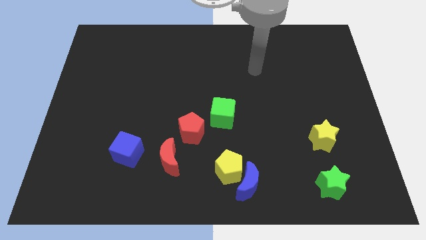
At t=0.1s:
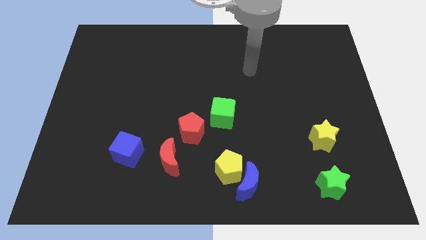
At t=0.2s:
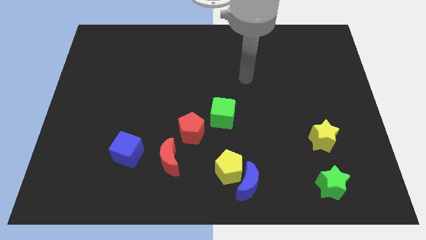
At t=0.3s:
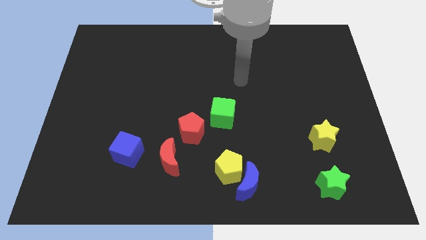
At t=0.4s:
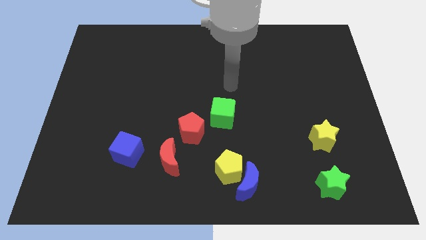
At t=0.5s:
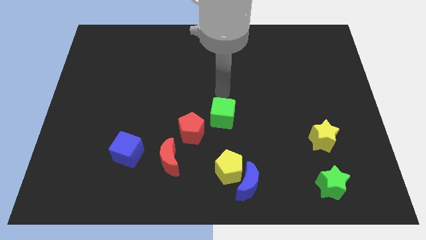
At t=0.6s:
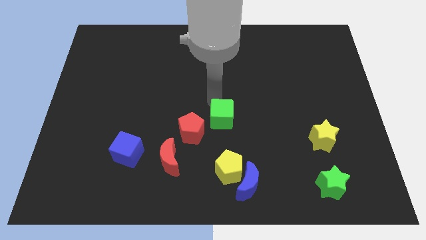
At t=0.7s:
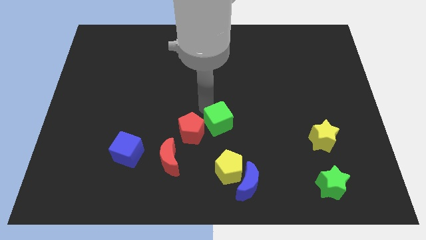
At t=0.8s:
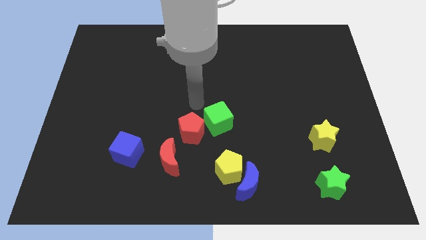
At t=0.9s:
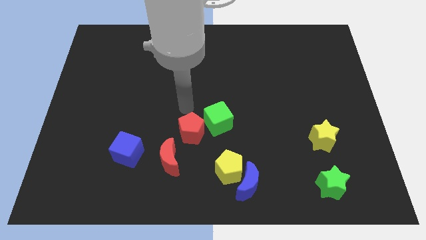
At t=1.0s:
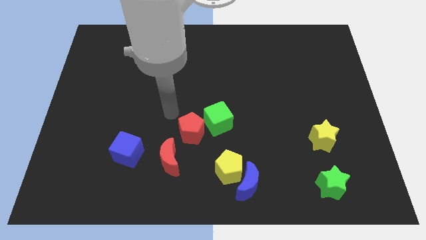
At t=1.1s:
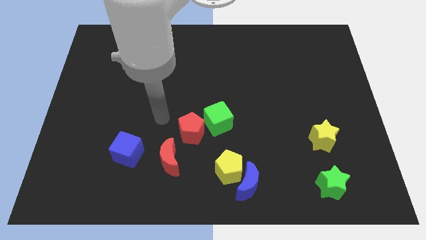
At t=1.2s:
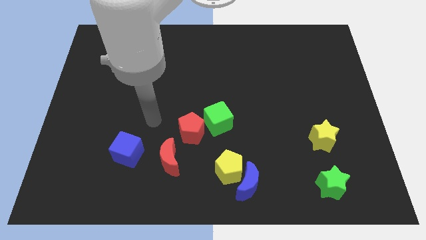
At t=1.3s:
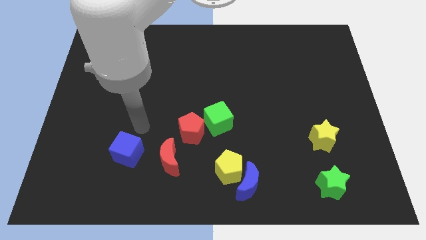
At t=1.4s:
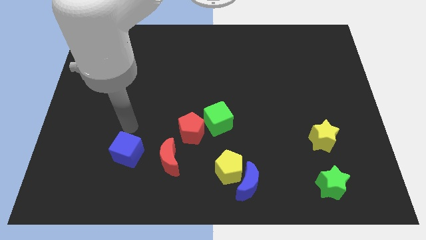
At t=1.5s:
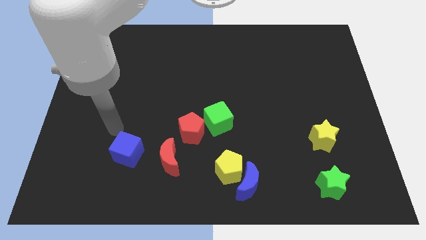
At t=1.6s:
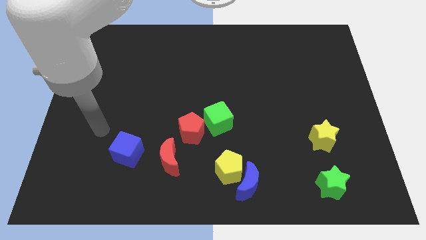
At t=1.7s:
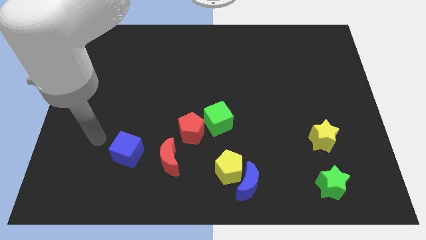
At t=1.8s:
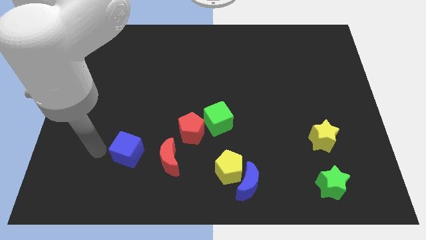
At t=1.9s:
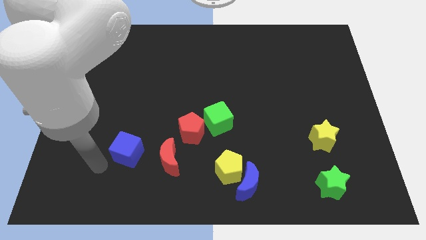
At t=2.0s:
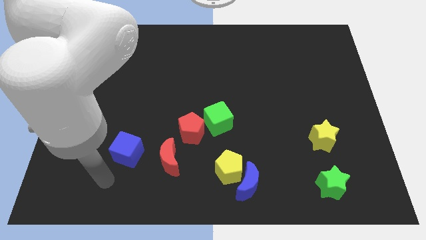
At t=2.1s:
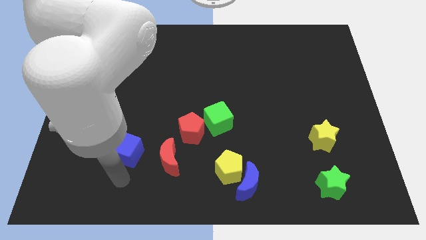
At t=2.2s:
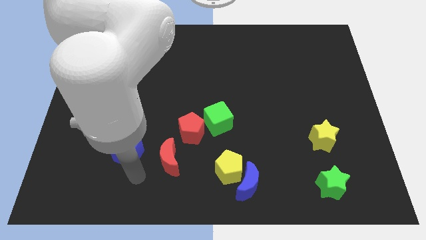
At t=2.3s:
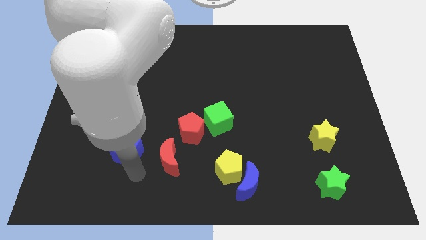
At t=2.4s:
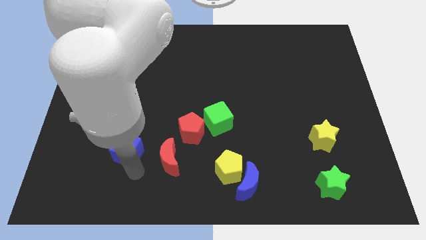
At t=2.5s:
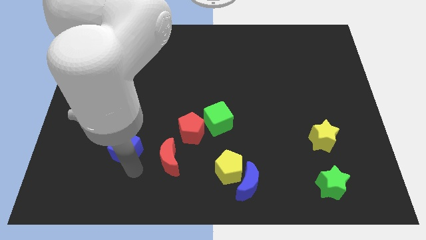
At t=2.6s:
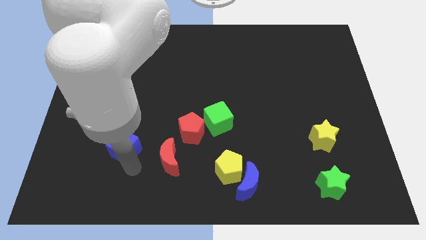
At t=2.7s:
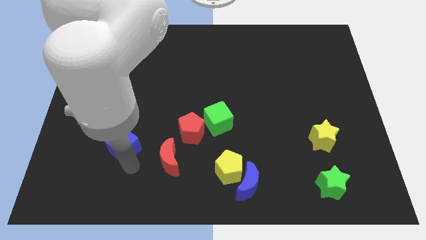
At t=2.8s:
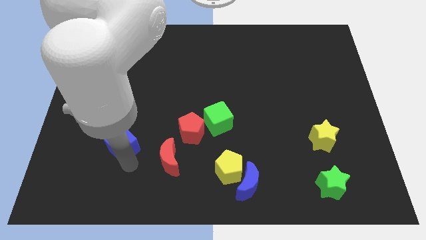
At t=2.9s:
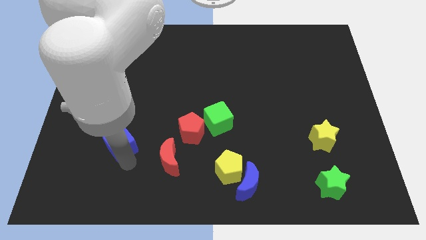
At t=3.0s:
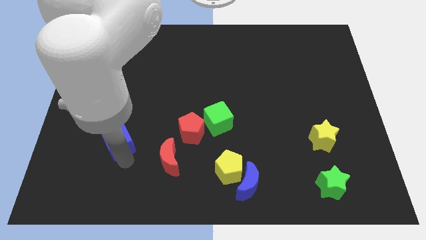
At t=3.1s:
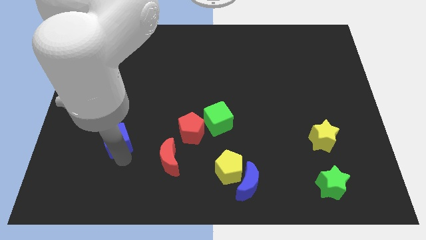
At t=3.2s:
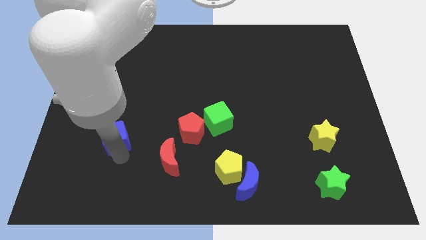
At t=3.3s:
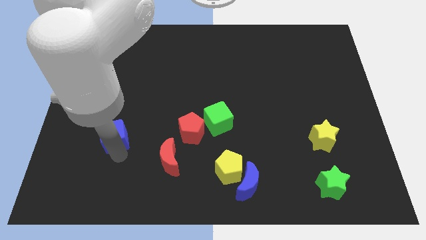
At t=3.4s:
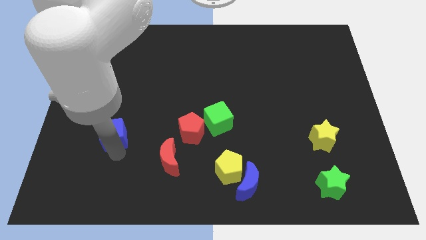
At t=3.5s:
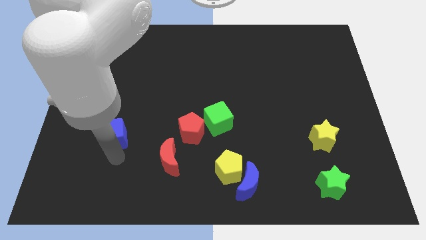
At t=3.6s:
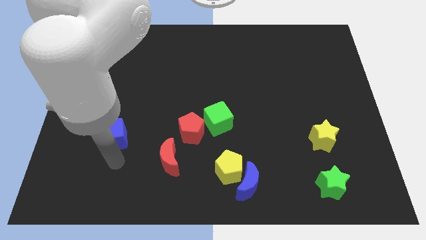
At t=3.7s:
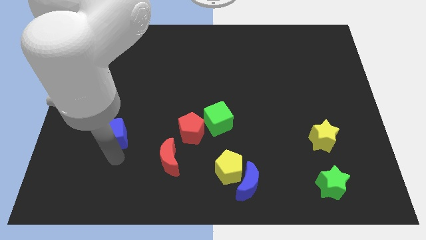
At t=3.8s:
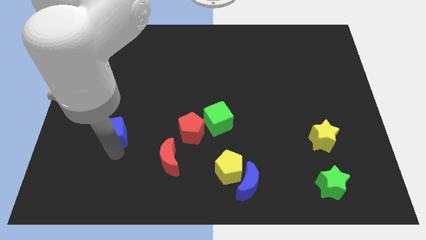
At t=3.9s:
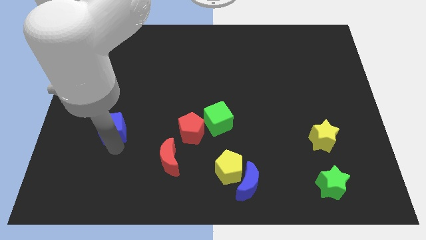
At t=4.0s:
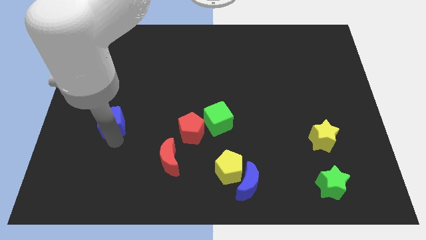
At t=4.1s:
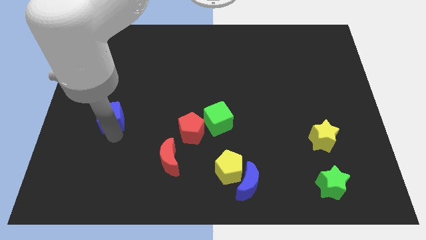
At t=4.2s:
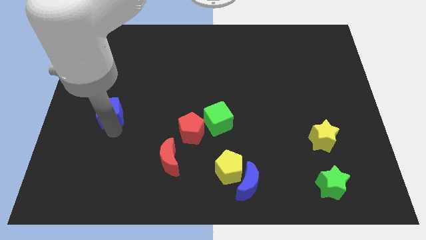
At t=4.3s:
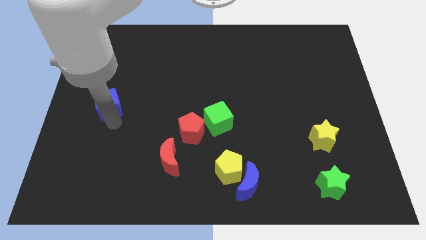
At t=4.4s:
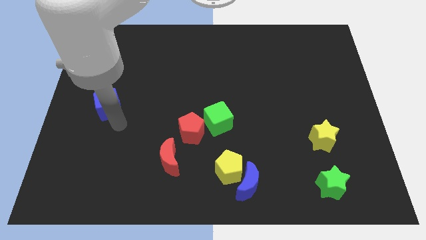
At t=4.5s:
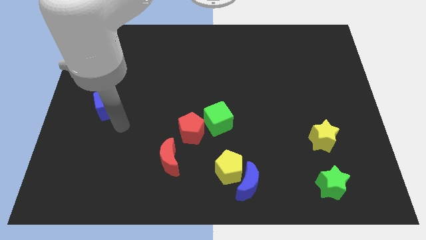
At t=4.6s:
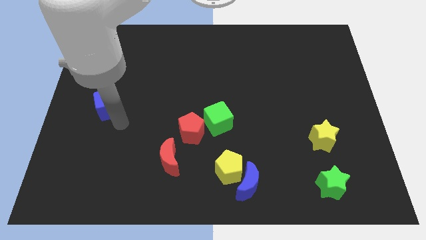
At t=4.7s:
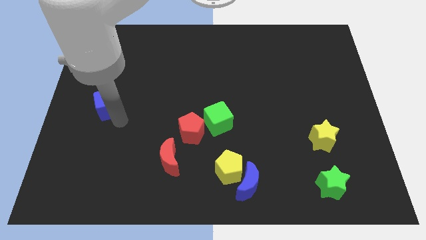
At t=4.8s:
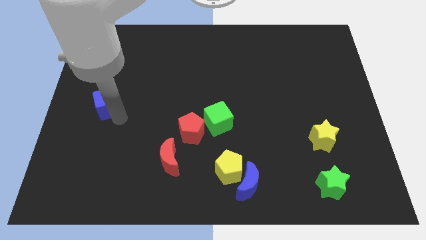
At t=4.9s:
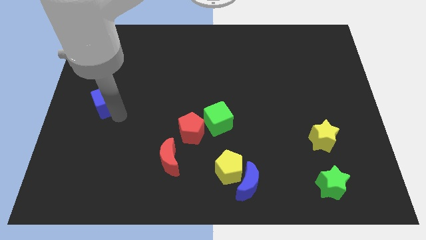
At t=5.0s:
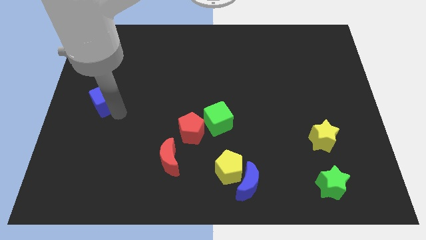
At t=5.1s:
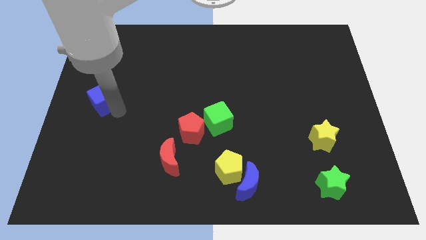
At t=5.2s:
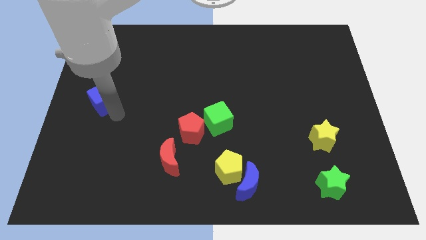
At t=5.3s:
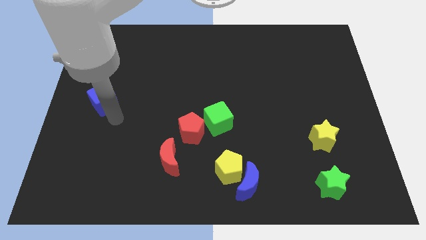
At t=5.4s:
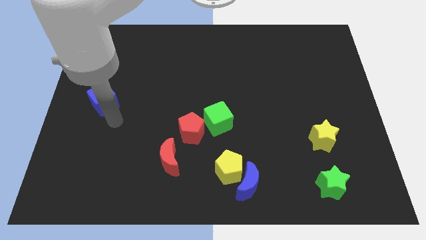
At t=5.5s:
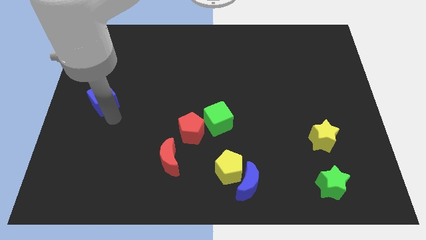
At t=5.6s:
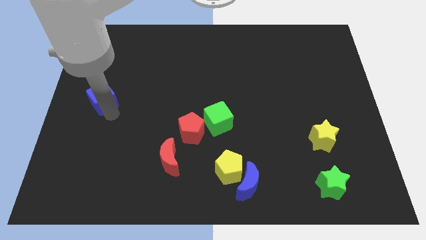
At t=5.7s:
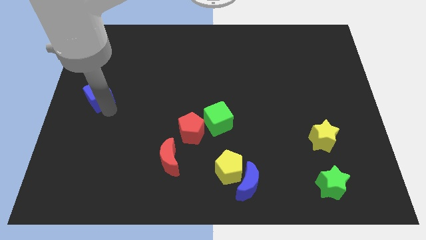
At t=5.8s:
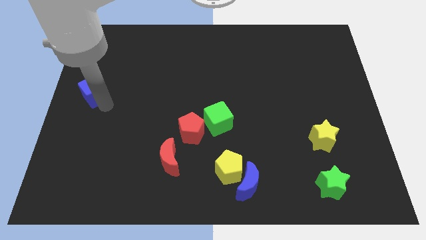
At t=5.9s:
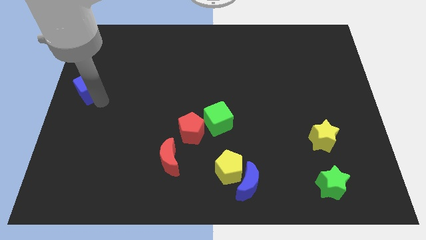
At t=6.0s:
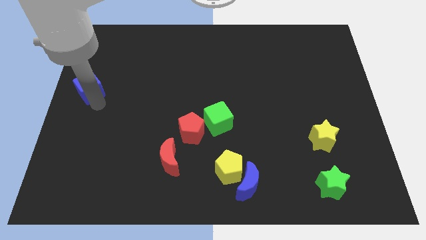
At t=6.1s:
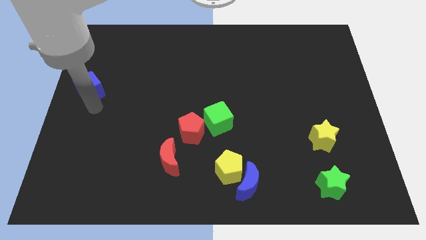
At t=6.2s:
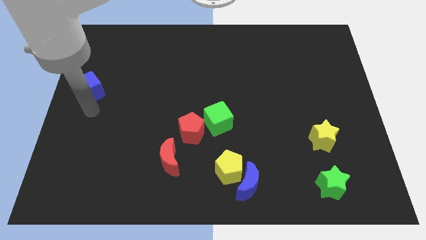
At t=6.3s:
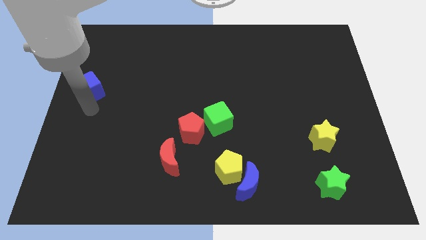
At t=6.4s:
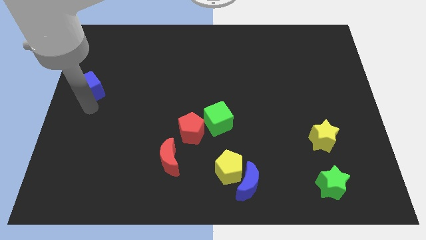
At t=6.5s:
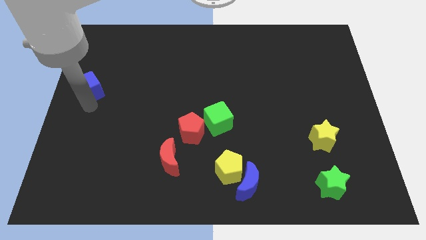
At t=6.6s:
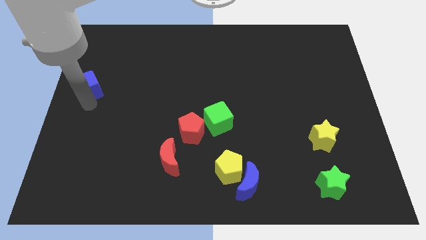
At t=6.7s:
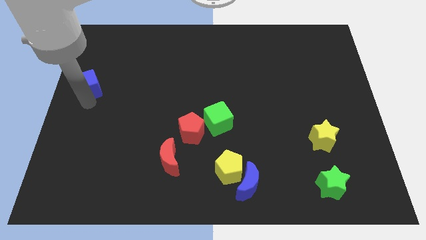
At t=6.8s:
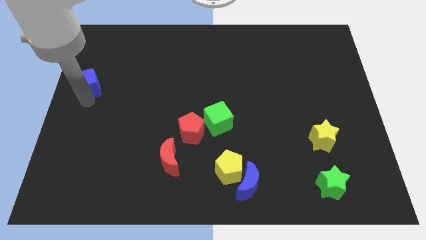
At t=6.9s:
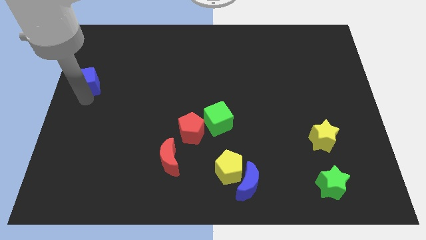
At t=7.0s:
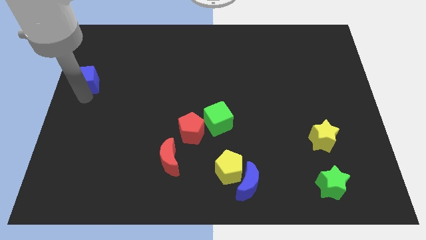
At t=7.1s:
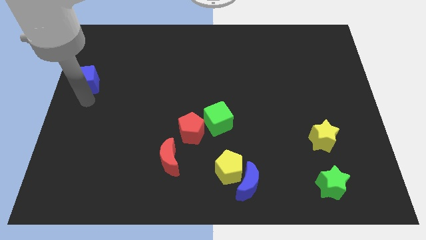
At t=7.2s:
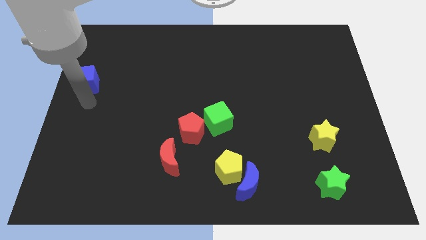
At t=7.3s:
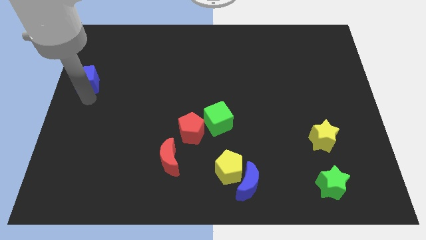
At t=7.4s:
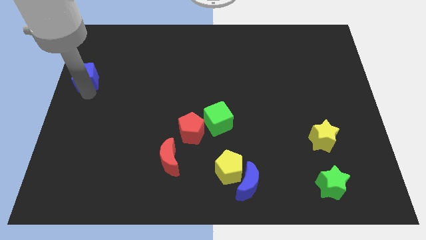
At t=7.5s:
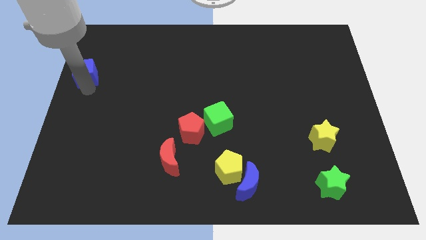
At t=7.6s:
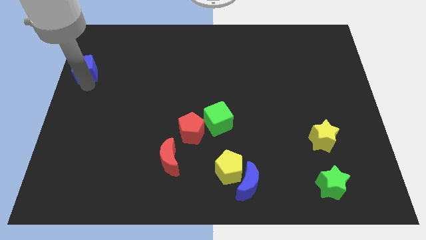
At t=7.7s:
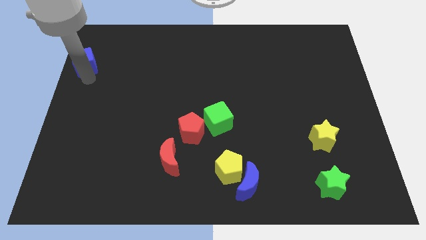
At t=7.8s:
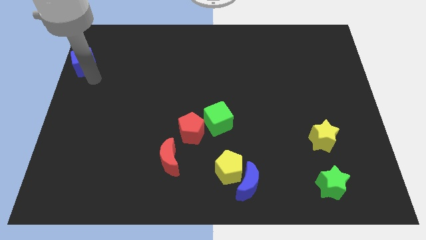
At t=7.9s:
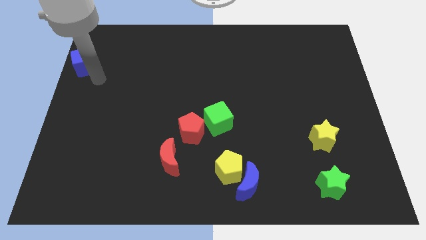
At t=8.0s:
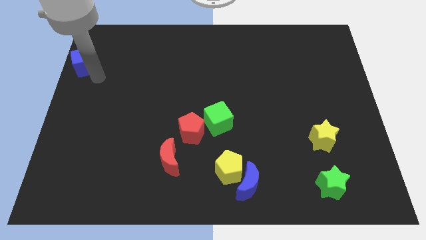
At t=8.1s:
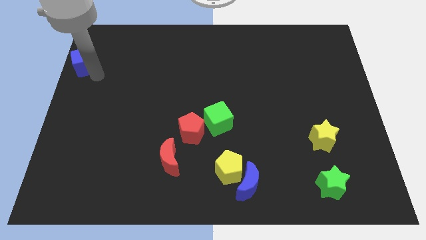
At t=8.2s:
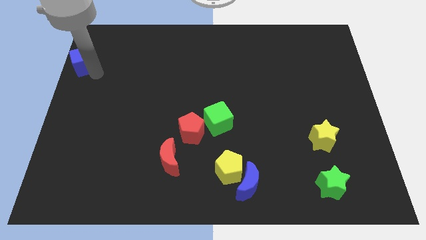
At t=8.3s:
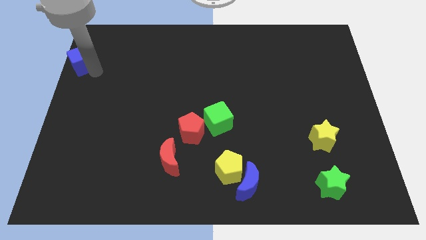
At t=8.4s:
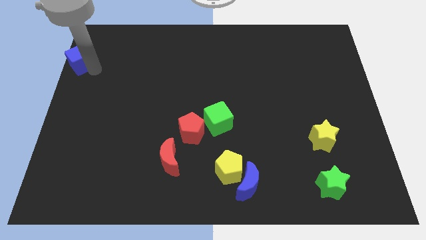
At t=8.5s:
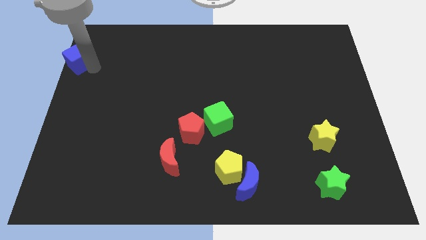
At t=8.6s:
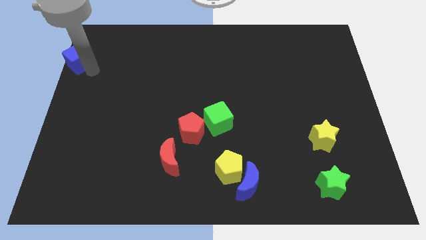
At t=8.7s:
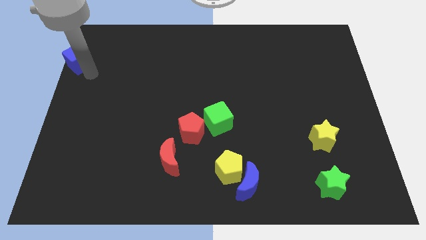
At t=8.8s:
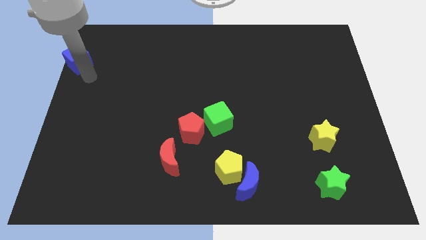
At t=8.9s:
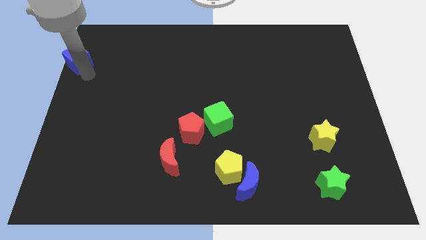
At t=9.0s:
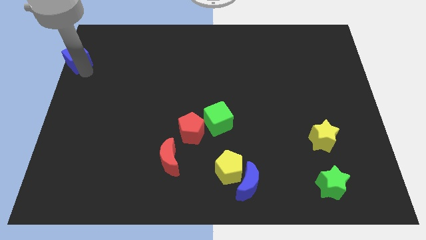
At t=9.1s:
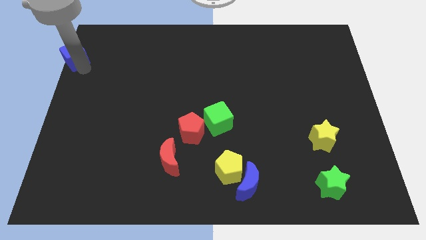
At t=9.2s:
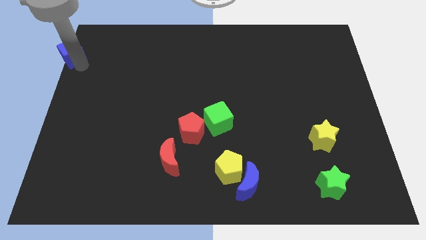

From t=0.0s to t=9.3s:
move the blue cube to the top left corner
